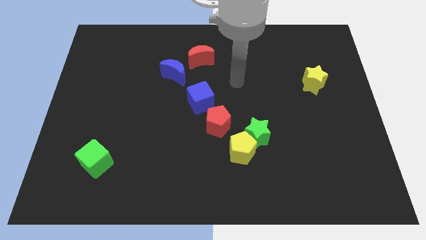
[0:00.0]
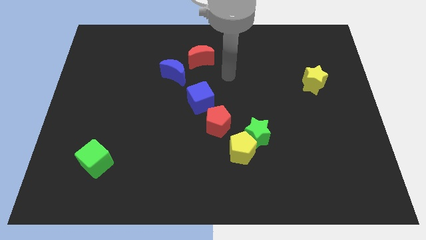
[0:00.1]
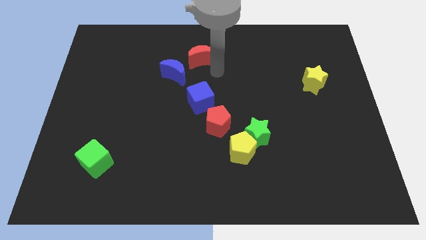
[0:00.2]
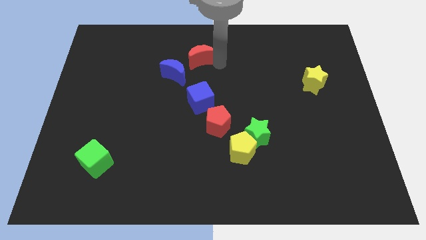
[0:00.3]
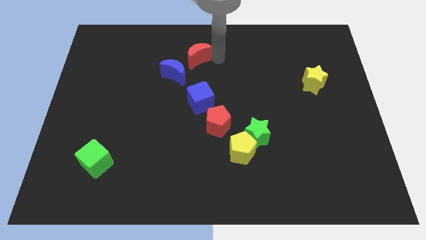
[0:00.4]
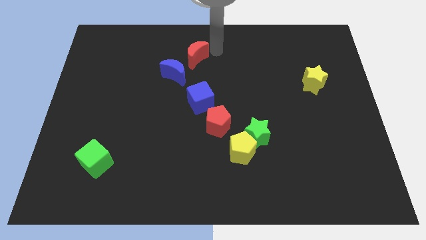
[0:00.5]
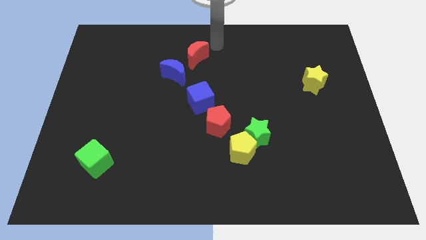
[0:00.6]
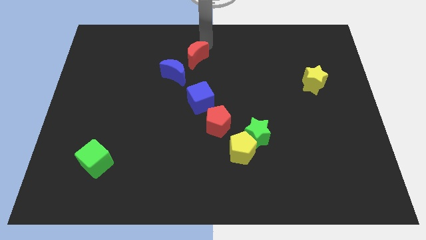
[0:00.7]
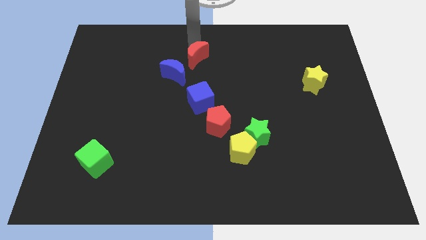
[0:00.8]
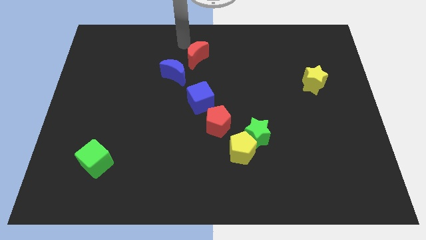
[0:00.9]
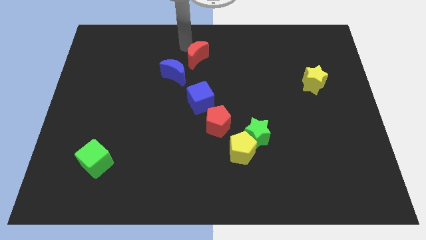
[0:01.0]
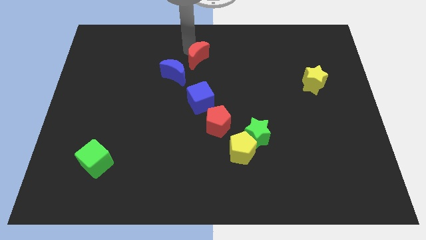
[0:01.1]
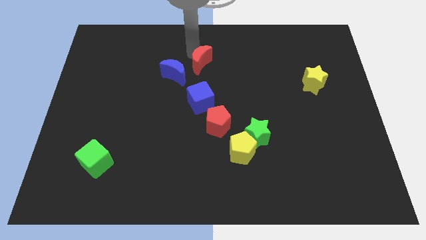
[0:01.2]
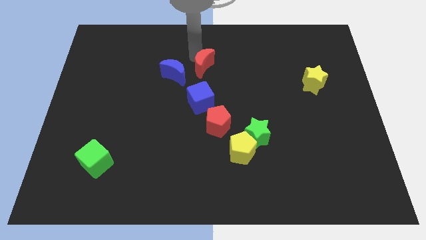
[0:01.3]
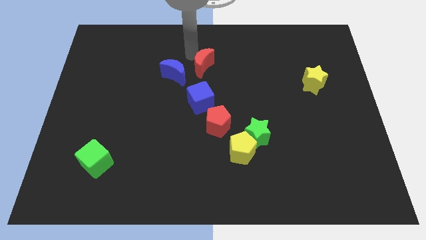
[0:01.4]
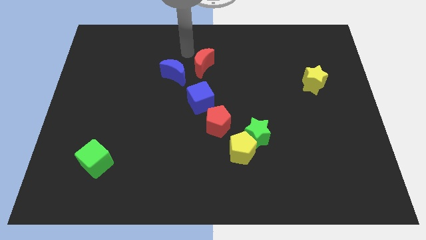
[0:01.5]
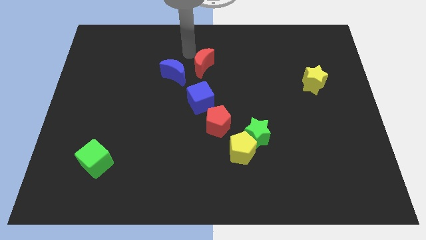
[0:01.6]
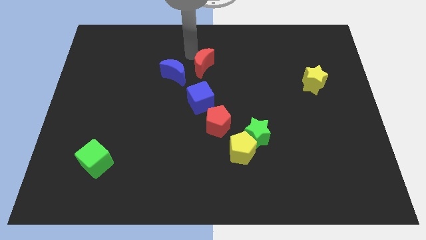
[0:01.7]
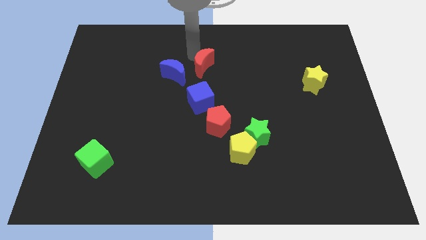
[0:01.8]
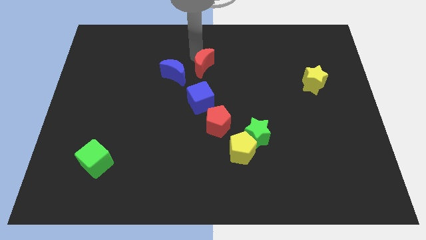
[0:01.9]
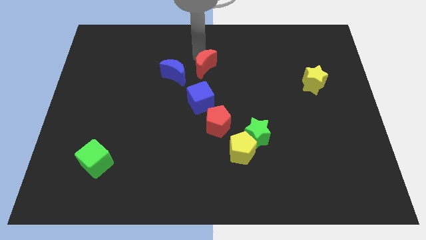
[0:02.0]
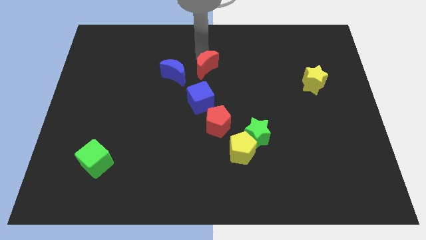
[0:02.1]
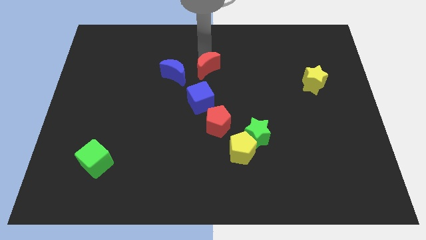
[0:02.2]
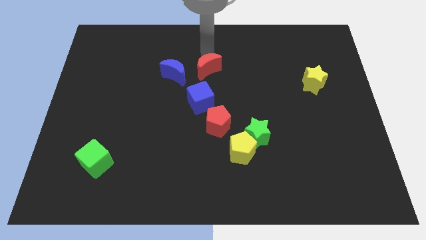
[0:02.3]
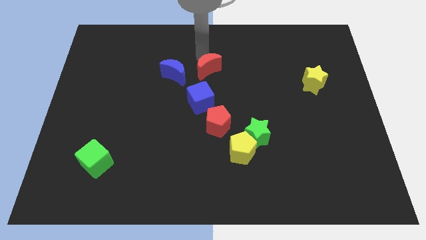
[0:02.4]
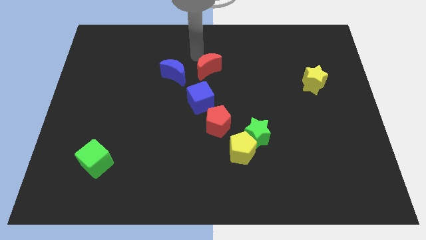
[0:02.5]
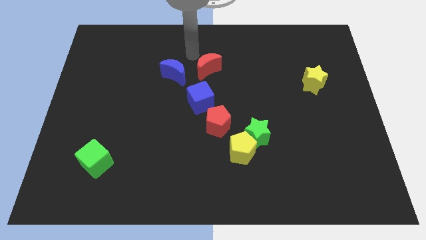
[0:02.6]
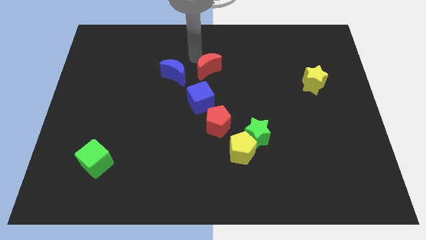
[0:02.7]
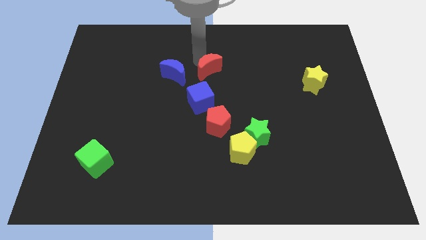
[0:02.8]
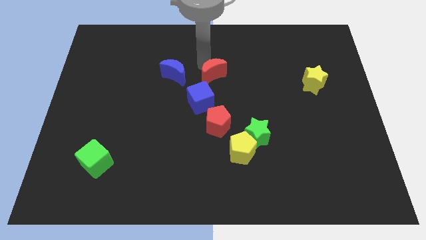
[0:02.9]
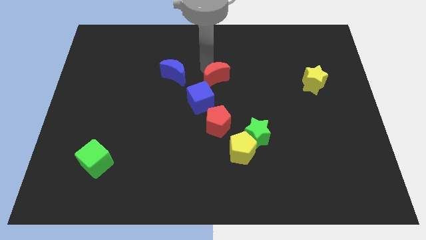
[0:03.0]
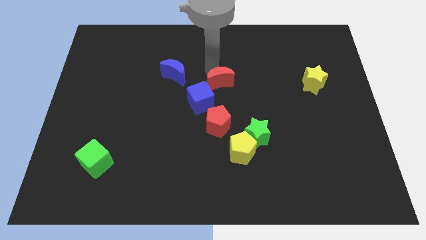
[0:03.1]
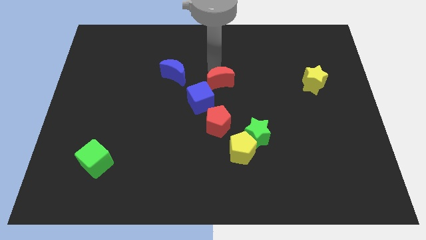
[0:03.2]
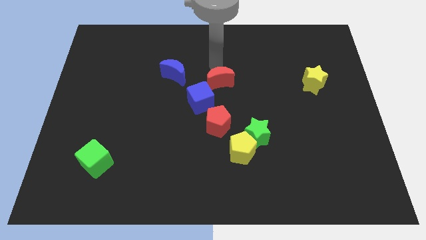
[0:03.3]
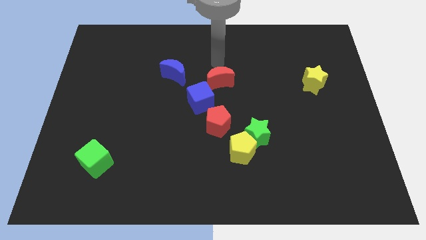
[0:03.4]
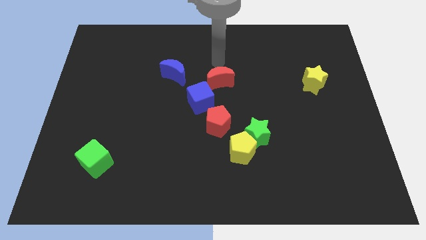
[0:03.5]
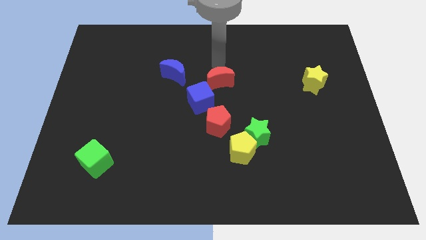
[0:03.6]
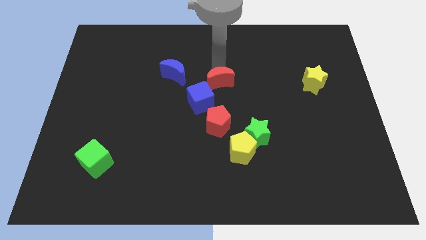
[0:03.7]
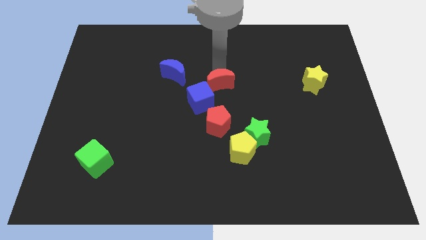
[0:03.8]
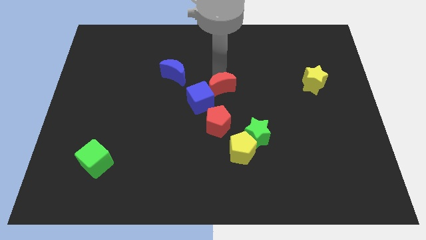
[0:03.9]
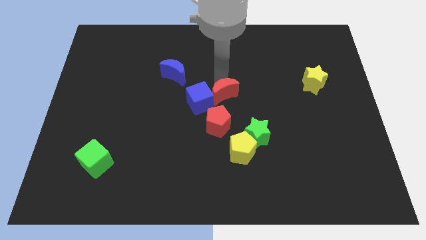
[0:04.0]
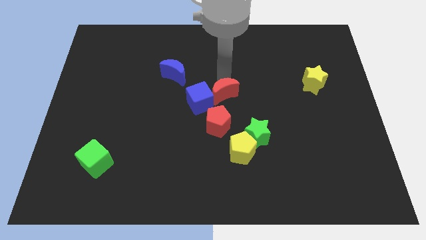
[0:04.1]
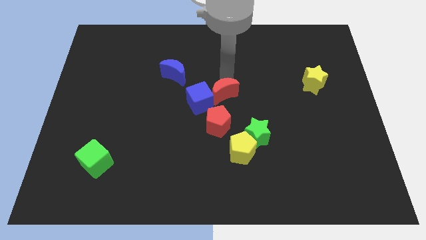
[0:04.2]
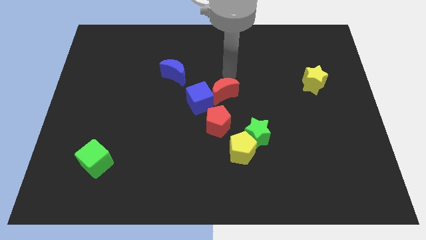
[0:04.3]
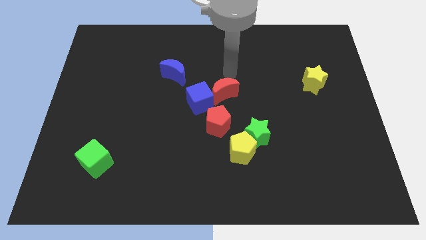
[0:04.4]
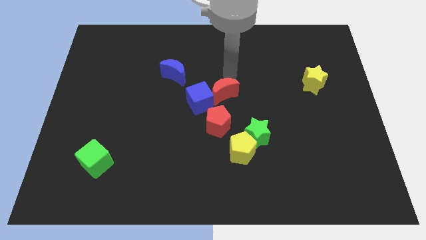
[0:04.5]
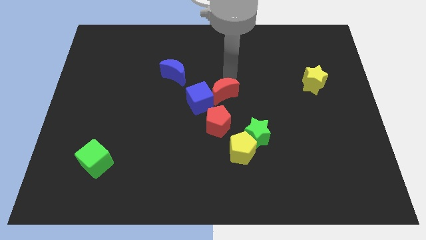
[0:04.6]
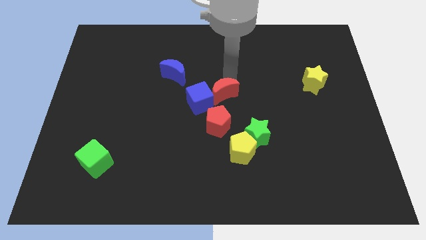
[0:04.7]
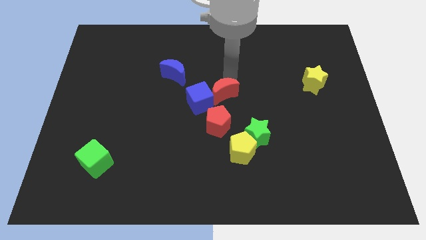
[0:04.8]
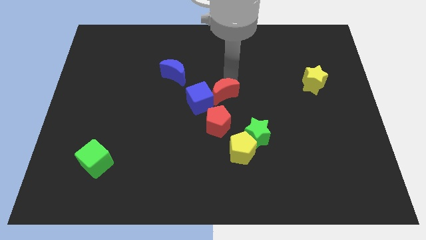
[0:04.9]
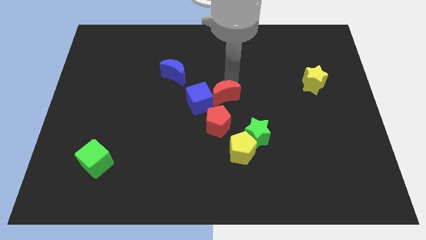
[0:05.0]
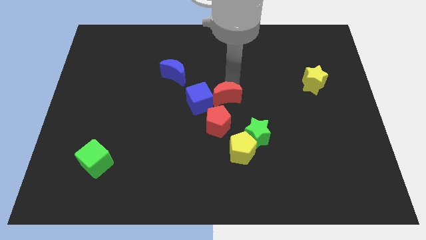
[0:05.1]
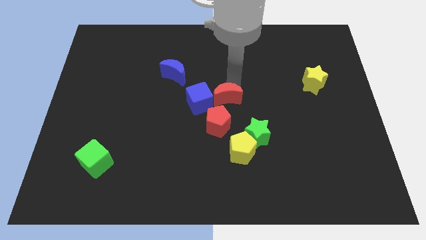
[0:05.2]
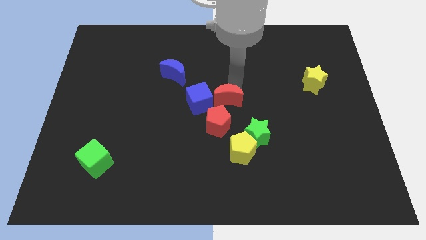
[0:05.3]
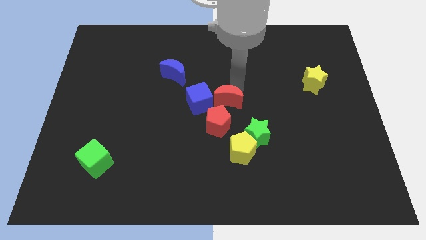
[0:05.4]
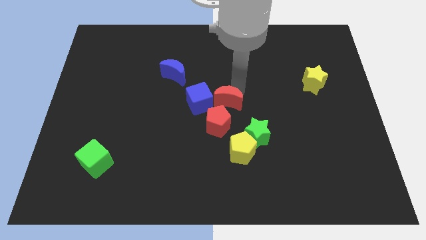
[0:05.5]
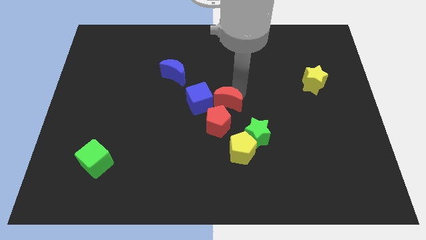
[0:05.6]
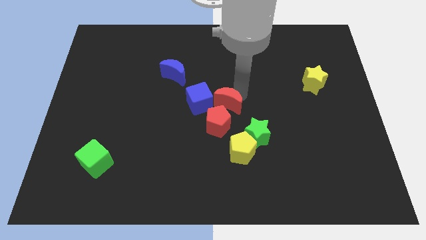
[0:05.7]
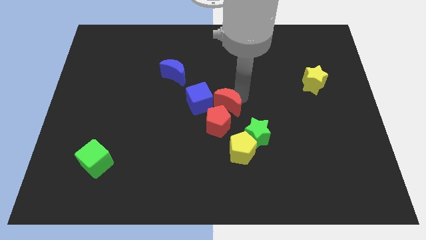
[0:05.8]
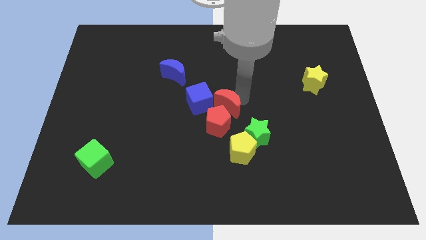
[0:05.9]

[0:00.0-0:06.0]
move the red moon close to the red pentagon

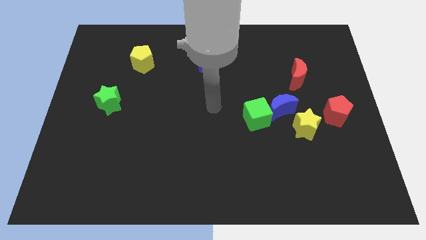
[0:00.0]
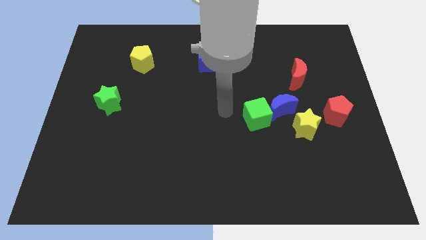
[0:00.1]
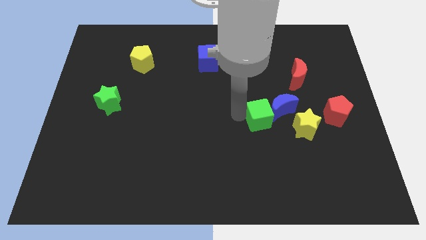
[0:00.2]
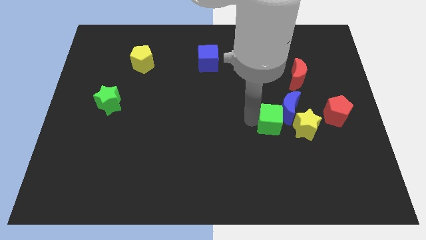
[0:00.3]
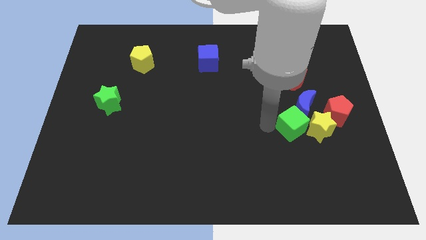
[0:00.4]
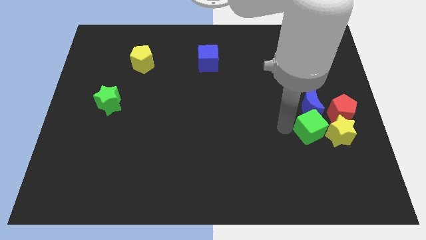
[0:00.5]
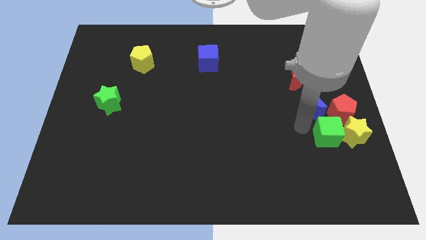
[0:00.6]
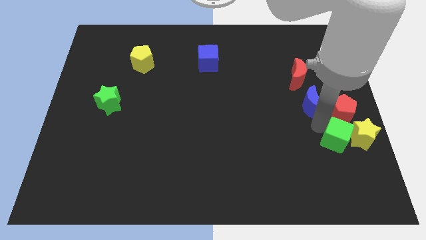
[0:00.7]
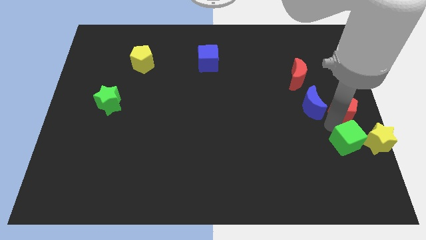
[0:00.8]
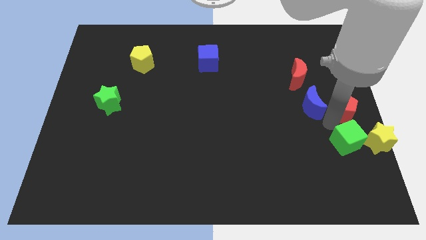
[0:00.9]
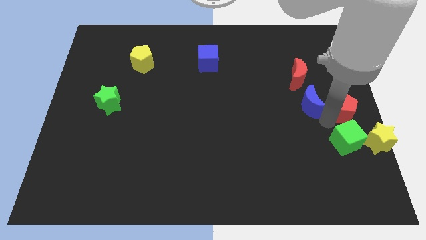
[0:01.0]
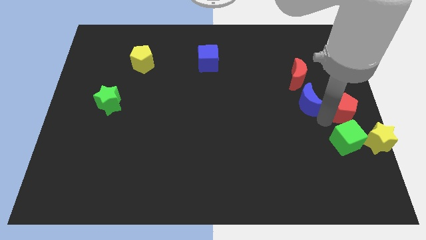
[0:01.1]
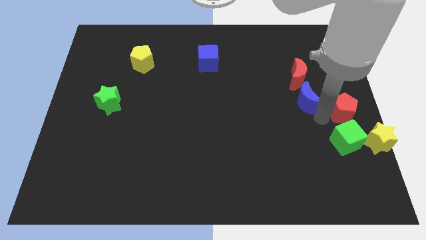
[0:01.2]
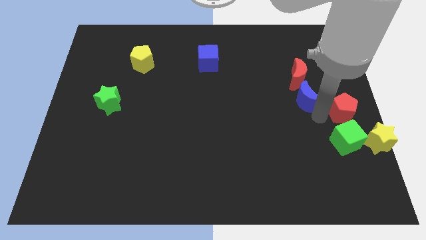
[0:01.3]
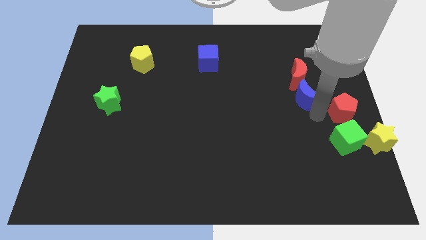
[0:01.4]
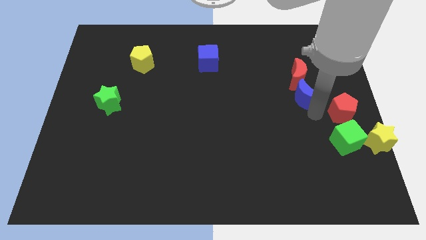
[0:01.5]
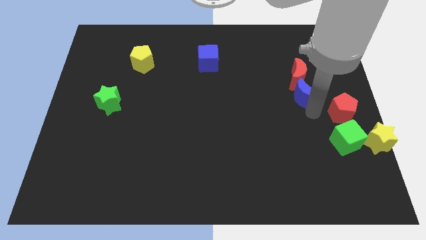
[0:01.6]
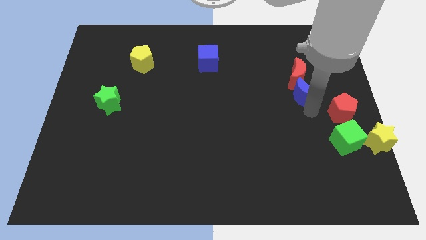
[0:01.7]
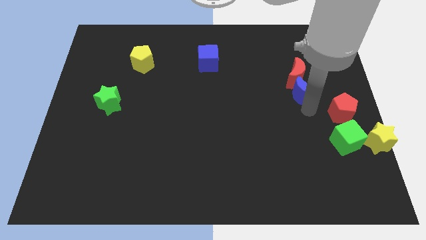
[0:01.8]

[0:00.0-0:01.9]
push the blue moon next to the red moon
